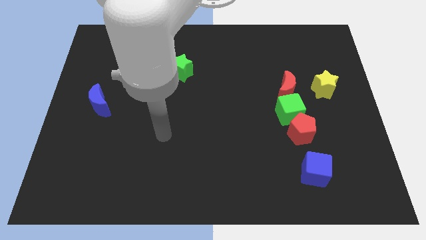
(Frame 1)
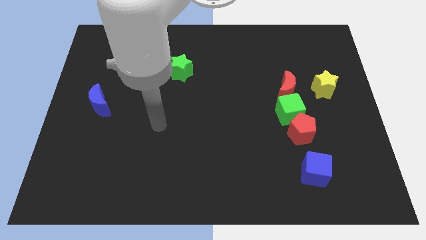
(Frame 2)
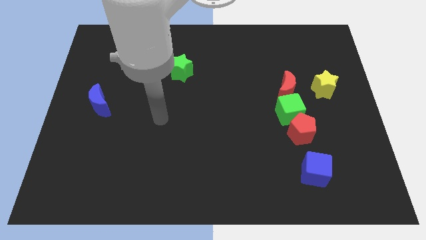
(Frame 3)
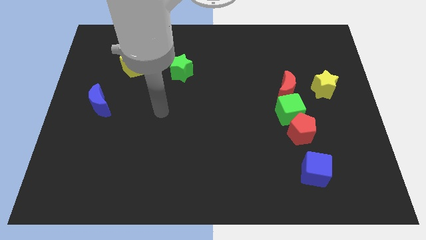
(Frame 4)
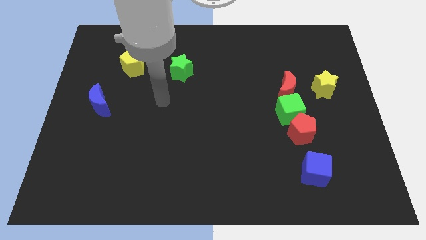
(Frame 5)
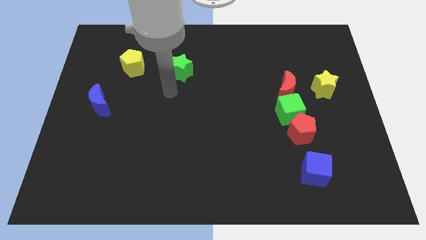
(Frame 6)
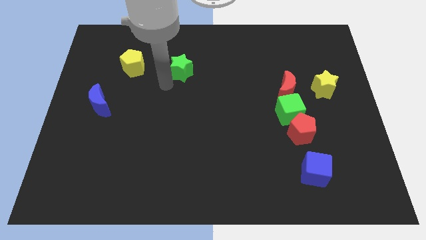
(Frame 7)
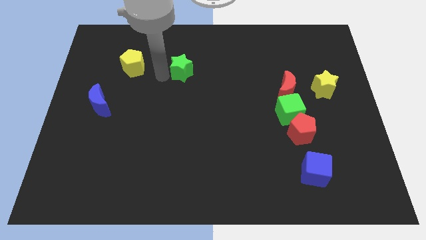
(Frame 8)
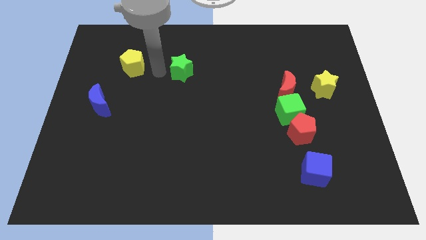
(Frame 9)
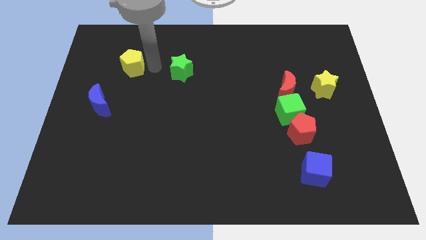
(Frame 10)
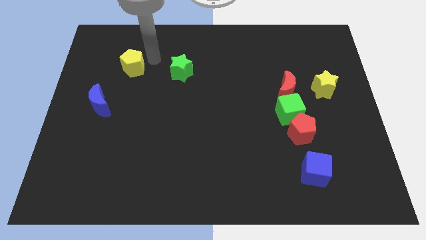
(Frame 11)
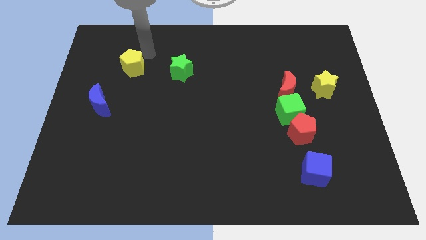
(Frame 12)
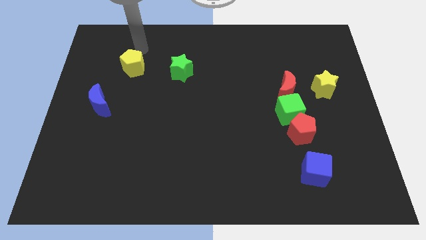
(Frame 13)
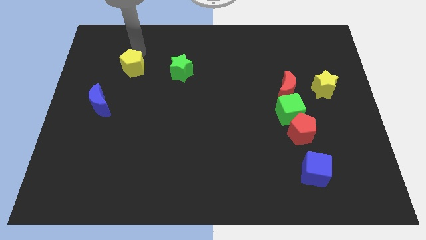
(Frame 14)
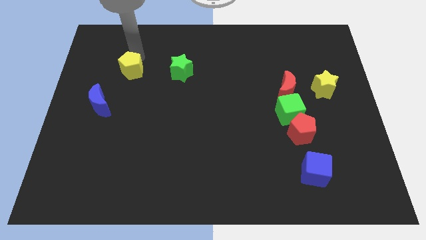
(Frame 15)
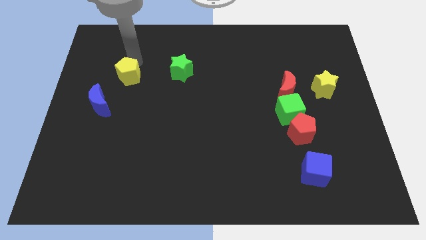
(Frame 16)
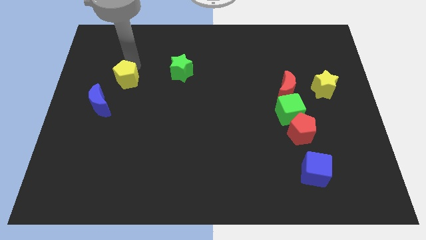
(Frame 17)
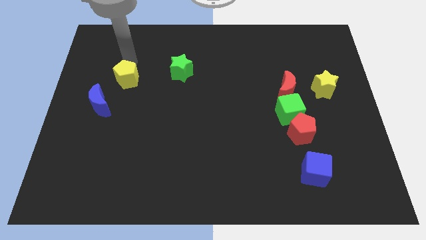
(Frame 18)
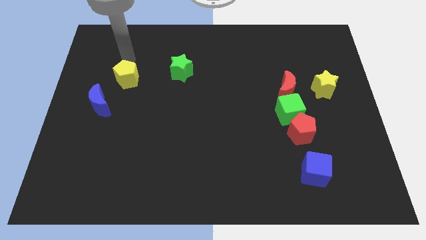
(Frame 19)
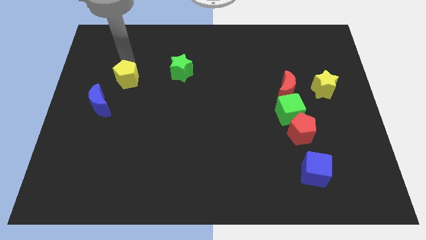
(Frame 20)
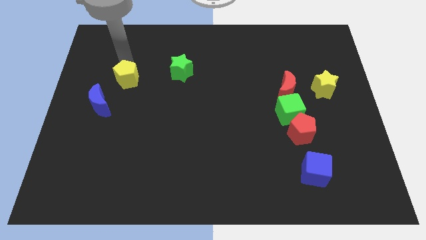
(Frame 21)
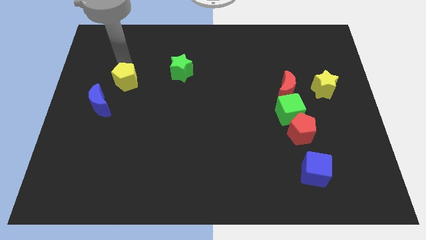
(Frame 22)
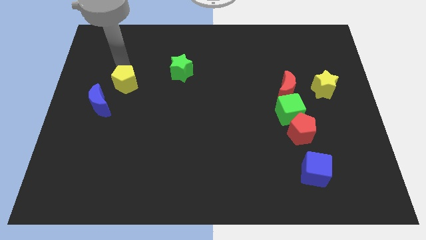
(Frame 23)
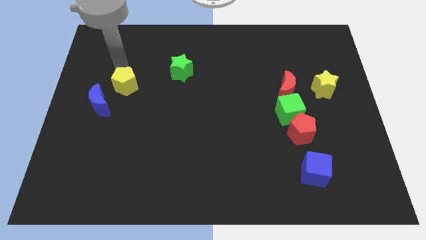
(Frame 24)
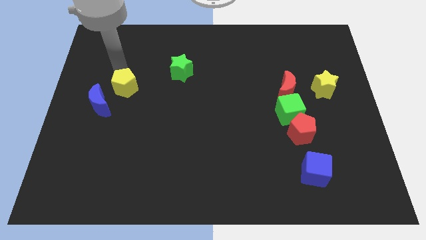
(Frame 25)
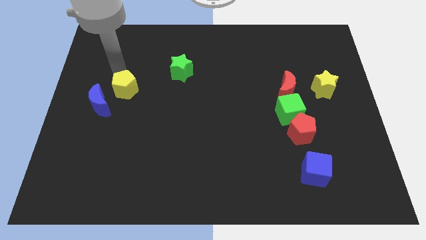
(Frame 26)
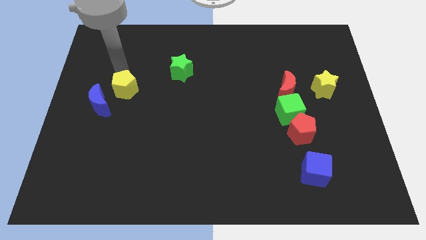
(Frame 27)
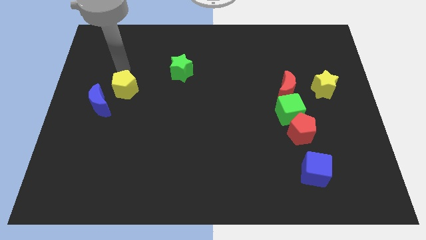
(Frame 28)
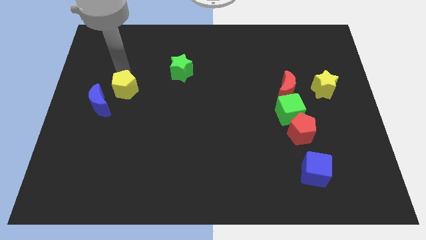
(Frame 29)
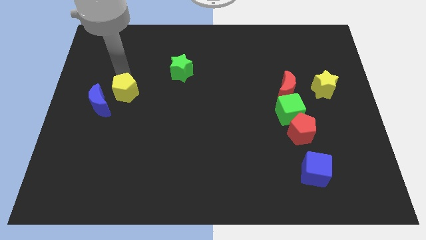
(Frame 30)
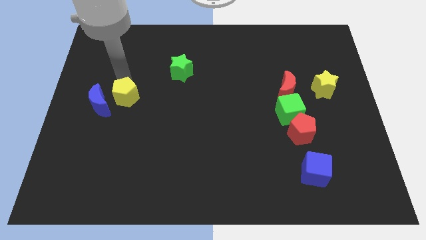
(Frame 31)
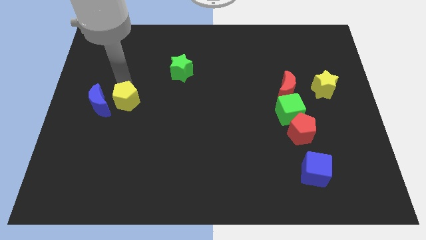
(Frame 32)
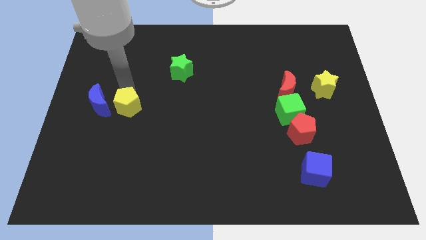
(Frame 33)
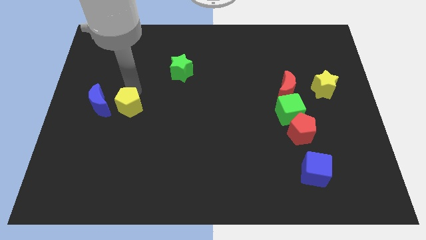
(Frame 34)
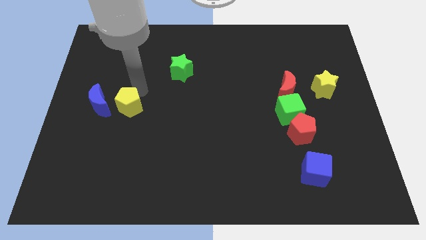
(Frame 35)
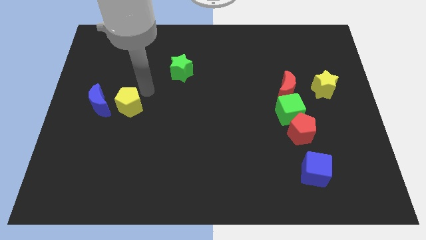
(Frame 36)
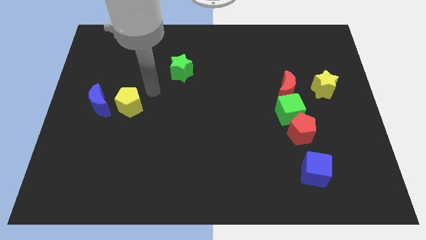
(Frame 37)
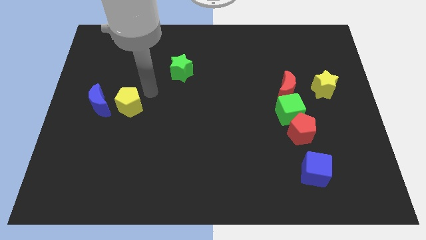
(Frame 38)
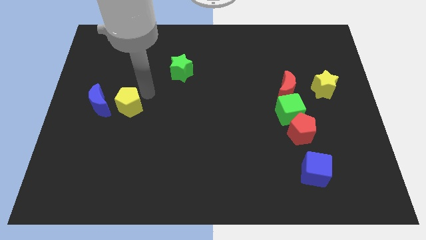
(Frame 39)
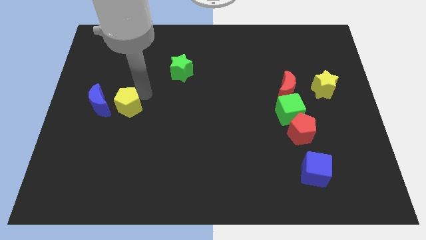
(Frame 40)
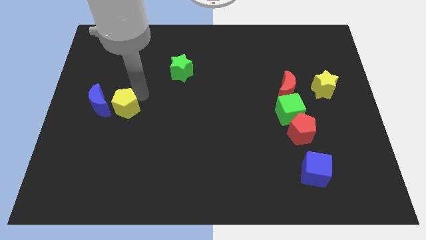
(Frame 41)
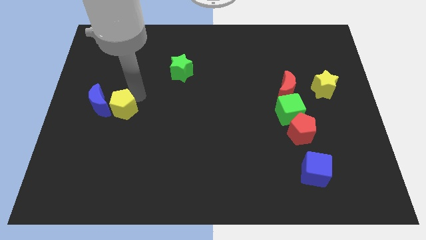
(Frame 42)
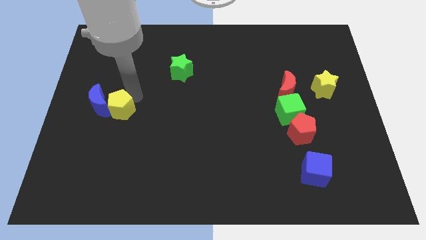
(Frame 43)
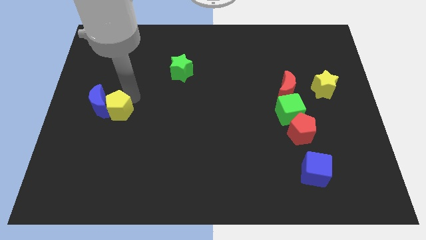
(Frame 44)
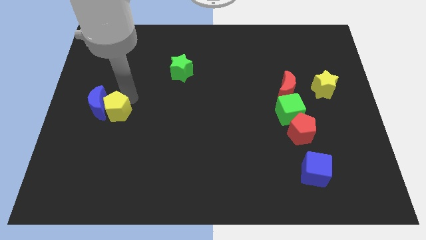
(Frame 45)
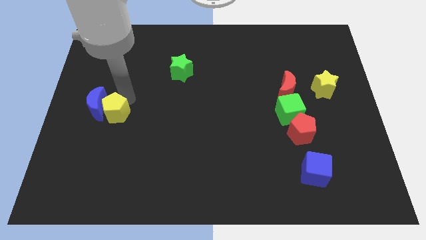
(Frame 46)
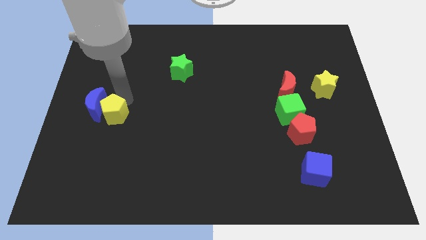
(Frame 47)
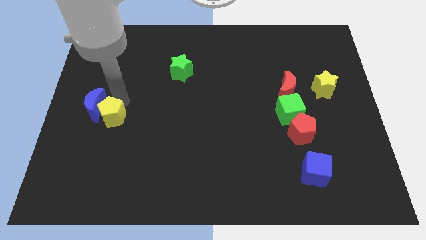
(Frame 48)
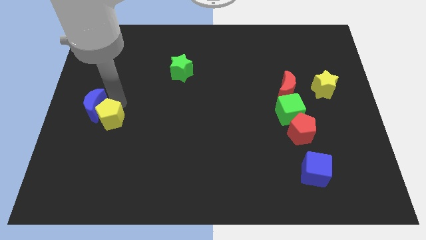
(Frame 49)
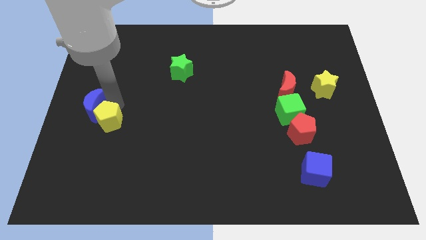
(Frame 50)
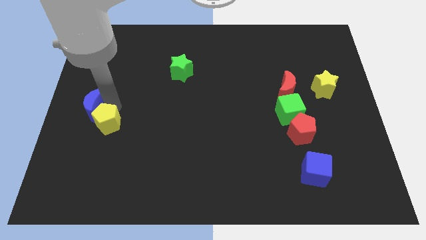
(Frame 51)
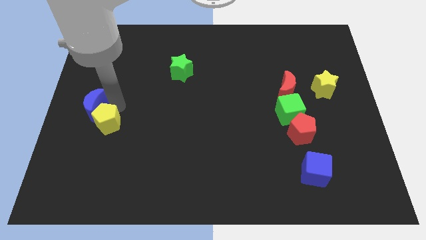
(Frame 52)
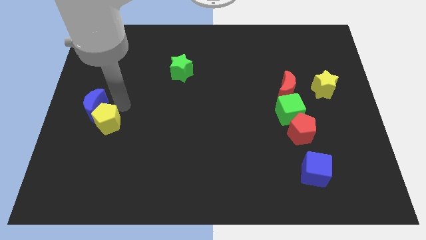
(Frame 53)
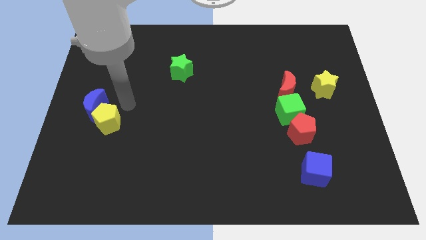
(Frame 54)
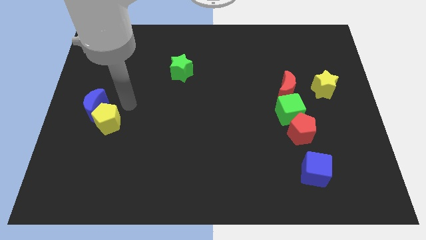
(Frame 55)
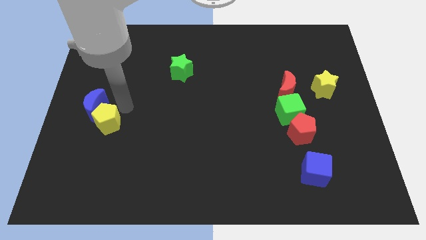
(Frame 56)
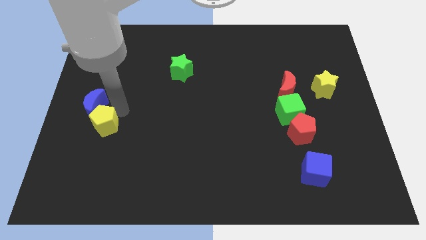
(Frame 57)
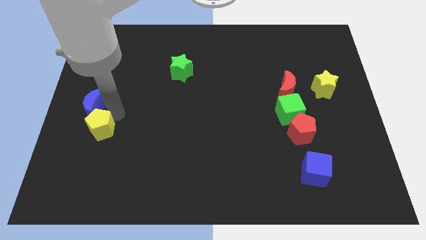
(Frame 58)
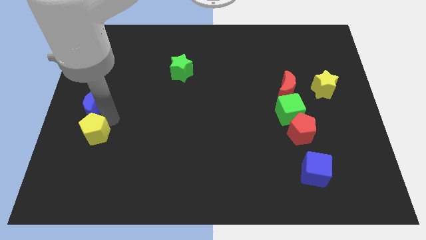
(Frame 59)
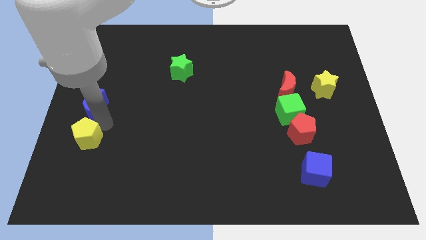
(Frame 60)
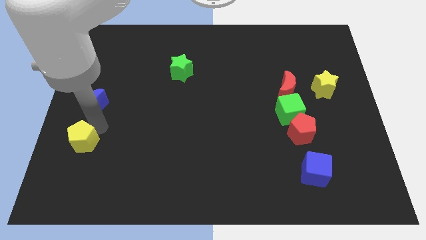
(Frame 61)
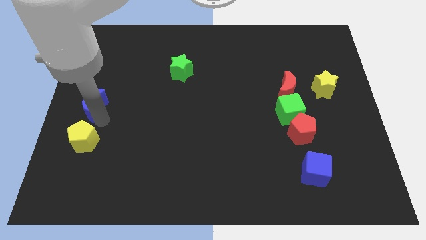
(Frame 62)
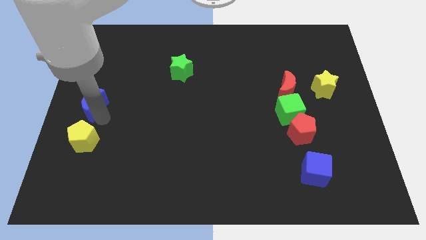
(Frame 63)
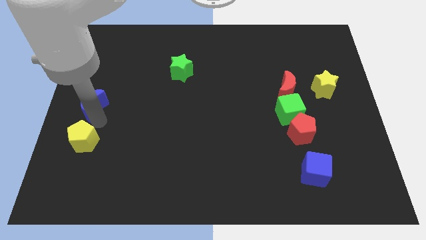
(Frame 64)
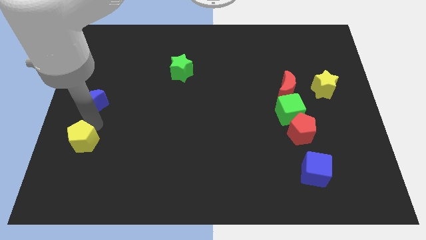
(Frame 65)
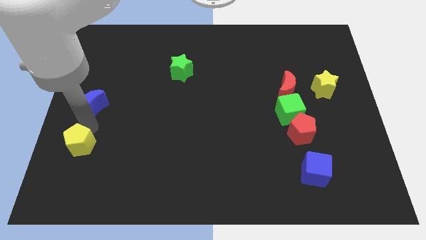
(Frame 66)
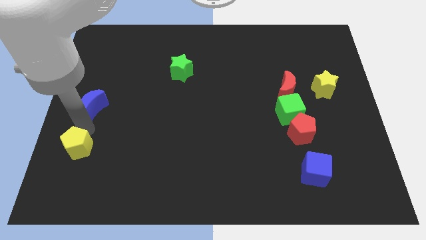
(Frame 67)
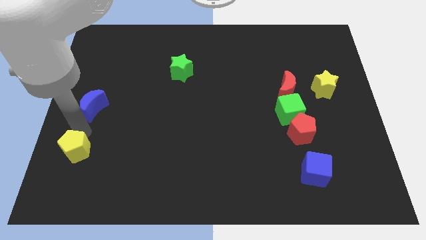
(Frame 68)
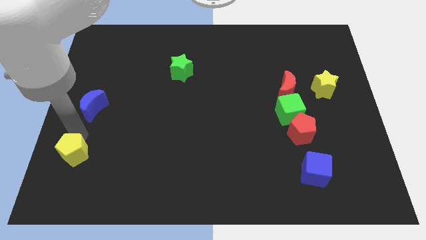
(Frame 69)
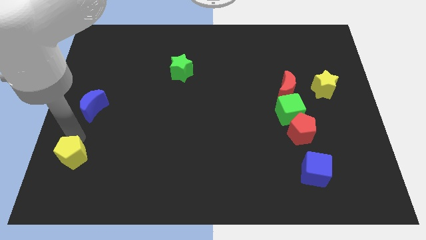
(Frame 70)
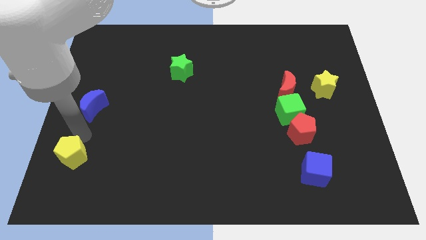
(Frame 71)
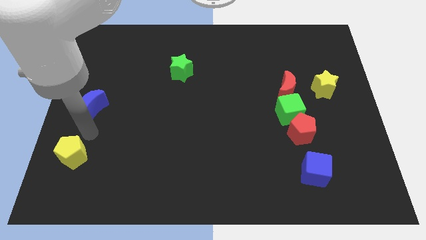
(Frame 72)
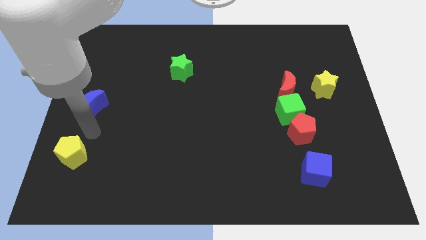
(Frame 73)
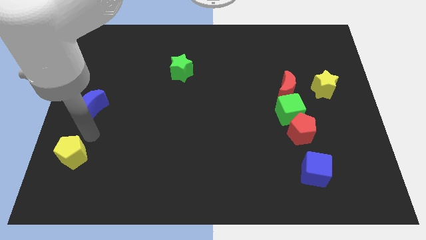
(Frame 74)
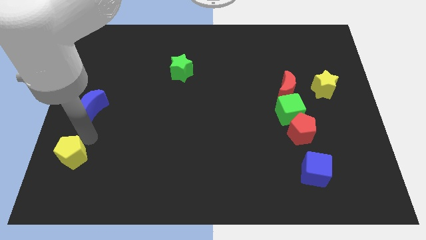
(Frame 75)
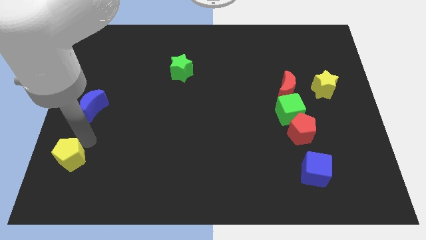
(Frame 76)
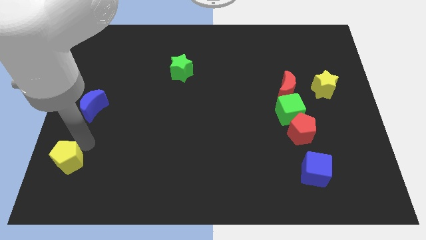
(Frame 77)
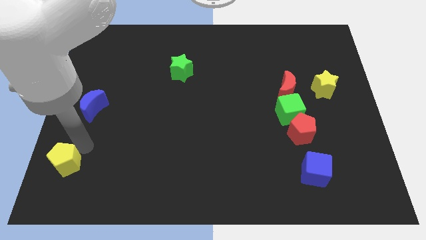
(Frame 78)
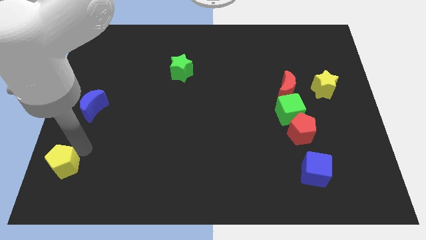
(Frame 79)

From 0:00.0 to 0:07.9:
push the yellow pentagon to the bottom left of the board
